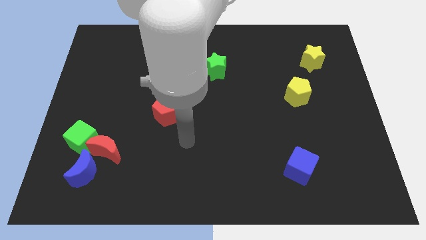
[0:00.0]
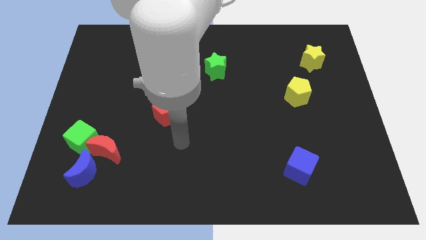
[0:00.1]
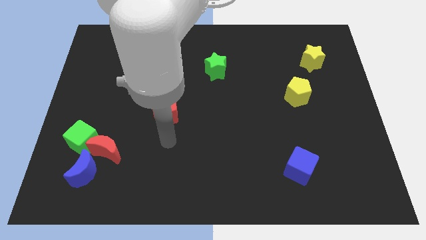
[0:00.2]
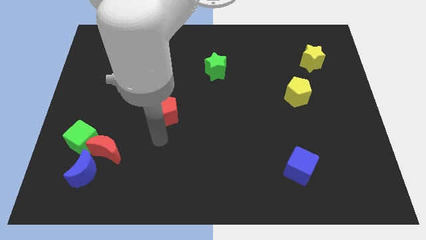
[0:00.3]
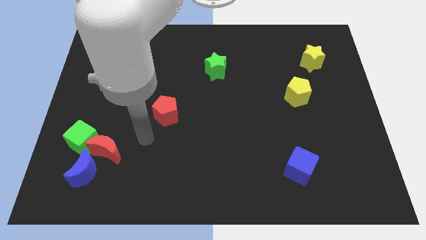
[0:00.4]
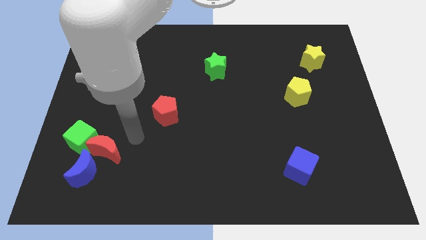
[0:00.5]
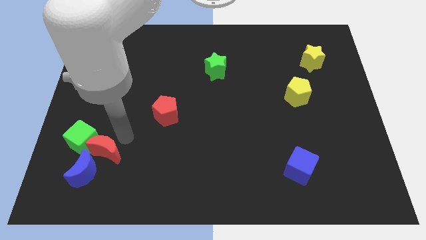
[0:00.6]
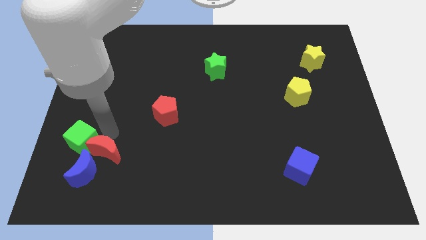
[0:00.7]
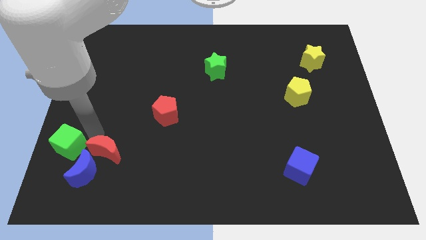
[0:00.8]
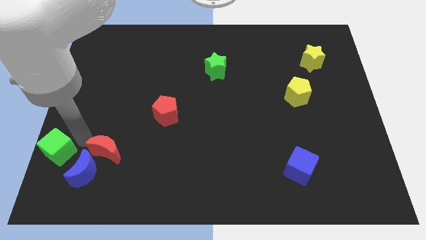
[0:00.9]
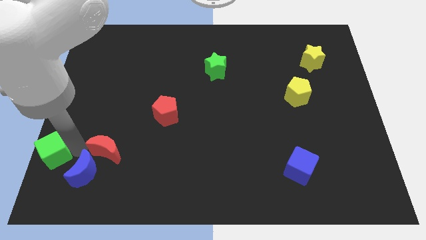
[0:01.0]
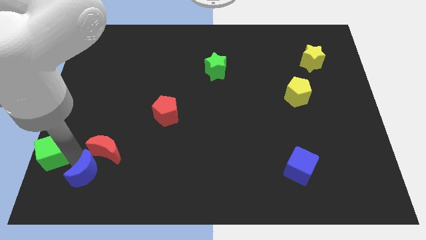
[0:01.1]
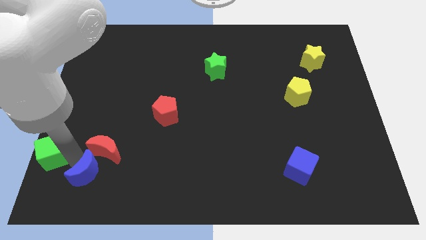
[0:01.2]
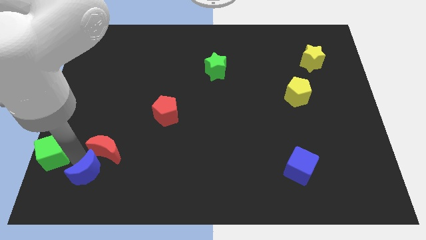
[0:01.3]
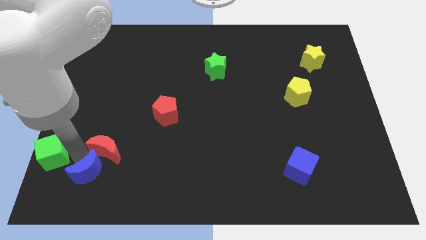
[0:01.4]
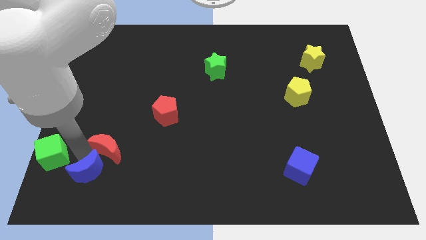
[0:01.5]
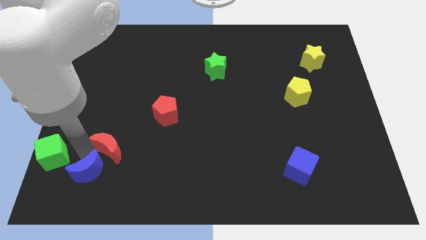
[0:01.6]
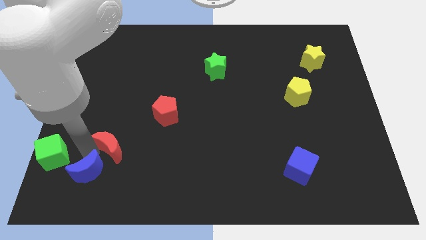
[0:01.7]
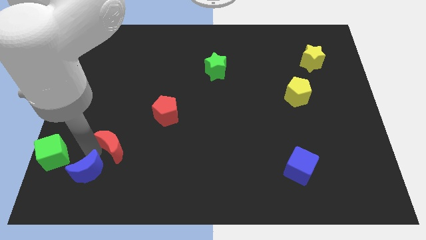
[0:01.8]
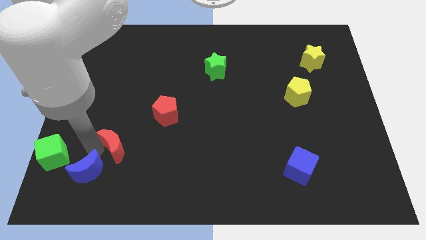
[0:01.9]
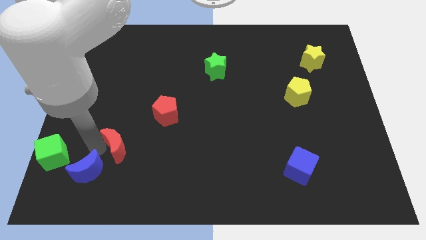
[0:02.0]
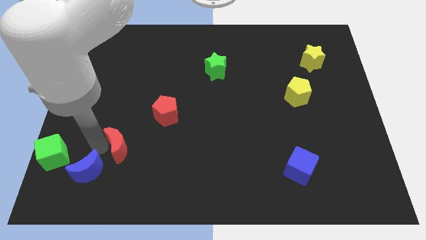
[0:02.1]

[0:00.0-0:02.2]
move the red moon away from the green cube and blue moon

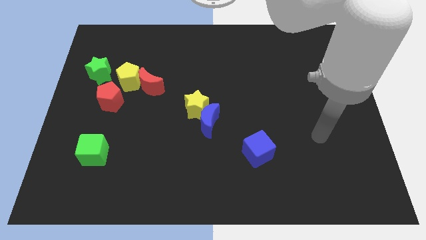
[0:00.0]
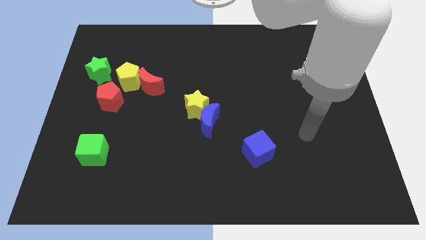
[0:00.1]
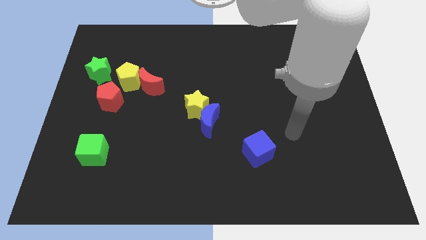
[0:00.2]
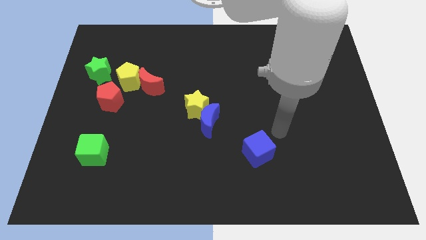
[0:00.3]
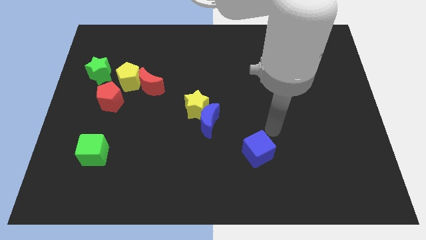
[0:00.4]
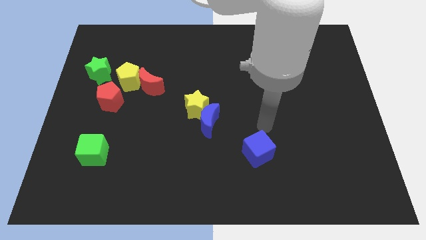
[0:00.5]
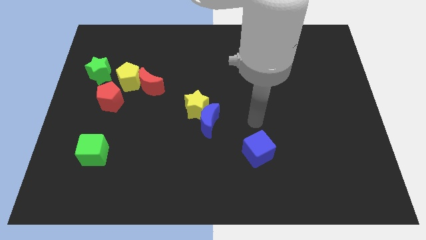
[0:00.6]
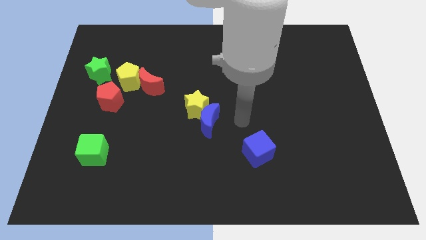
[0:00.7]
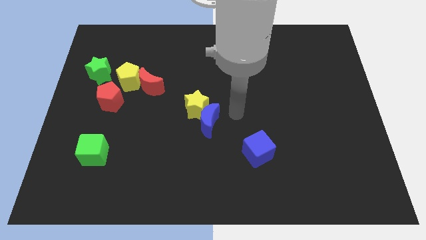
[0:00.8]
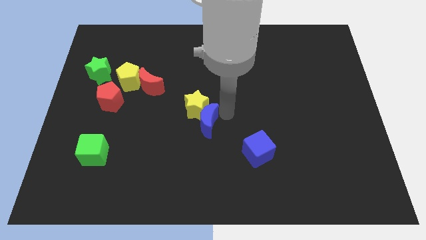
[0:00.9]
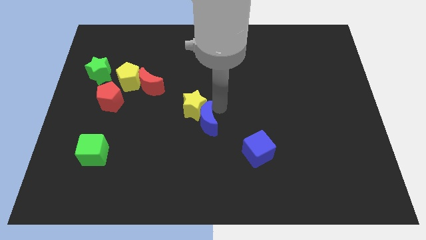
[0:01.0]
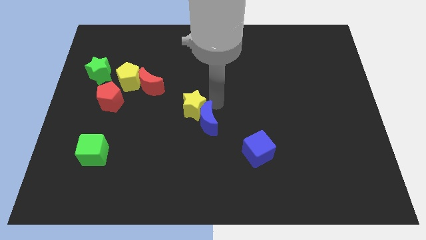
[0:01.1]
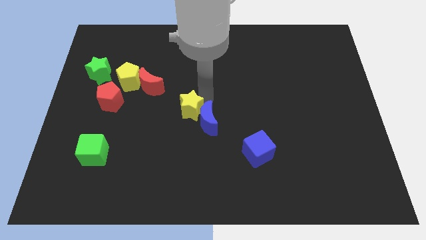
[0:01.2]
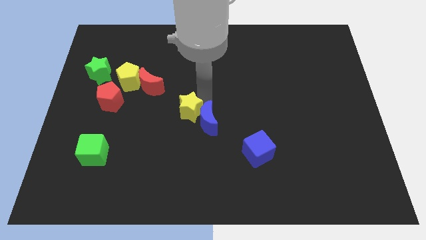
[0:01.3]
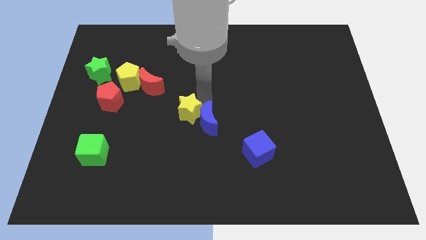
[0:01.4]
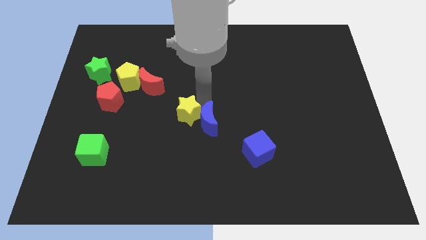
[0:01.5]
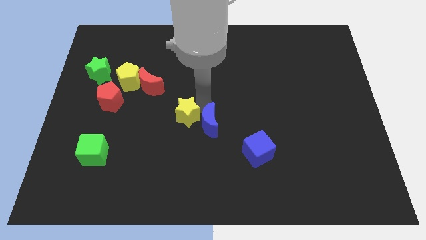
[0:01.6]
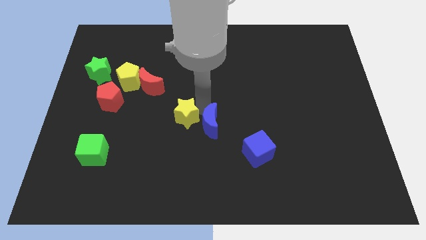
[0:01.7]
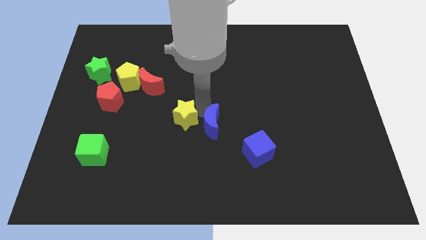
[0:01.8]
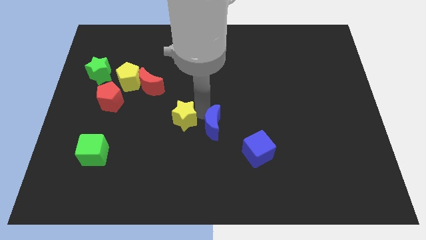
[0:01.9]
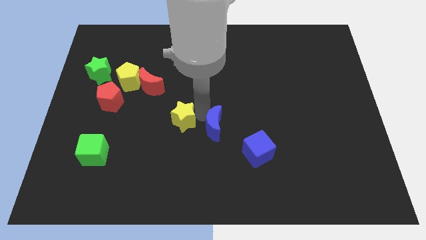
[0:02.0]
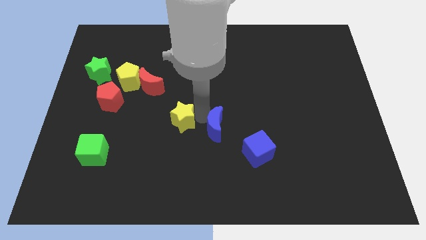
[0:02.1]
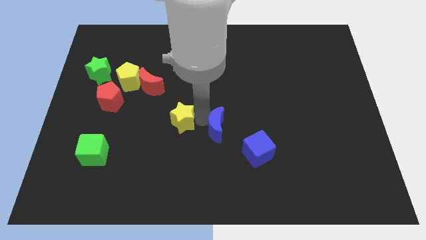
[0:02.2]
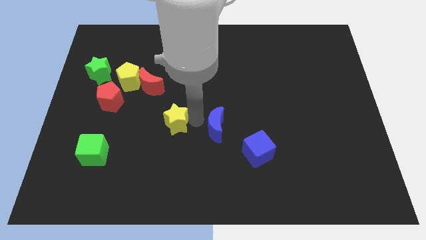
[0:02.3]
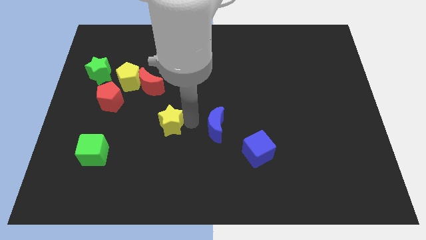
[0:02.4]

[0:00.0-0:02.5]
pull the blue moon apart from the yellow star

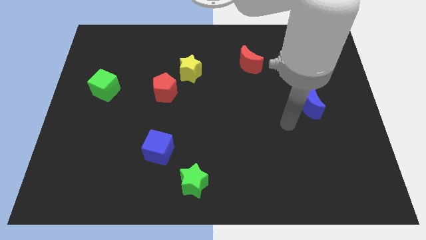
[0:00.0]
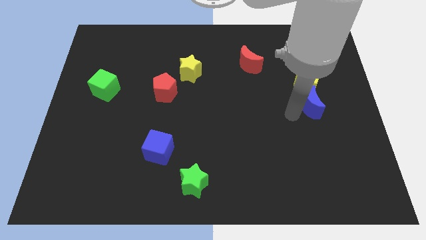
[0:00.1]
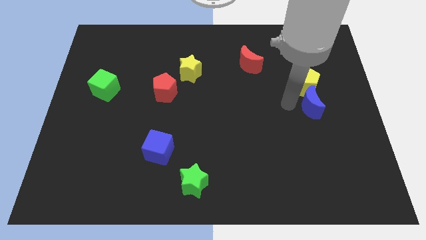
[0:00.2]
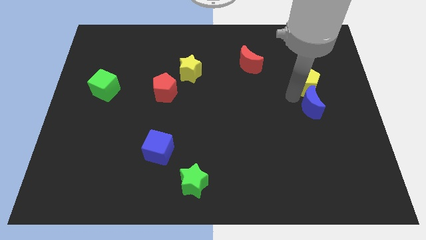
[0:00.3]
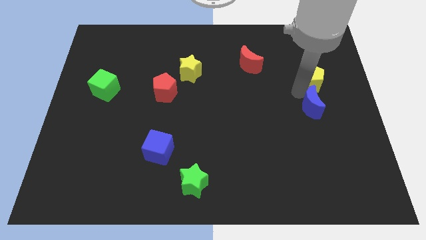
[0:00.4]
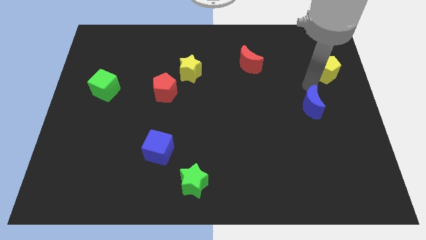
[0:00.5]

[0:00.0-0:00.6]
separate the blue moon from the yellow pentagon

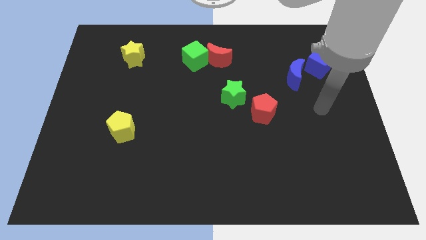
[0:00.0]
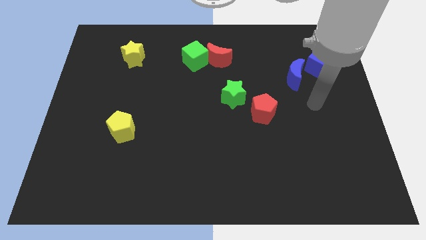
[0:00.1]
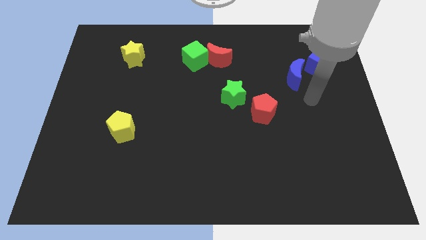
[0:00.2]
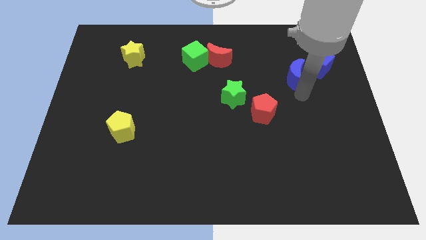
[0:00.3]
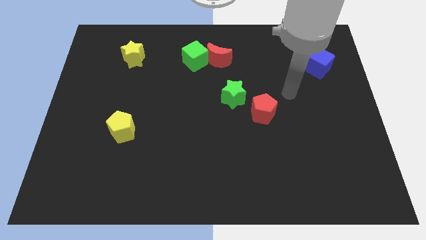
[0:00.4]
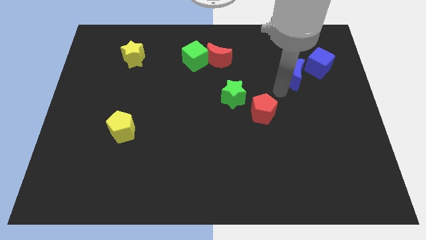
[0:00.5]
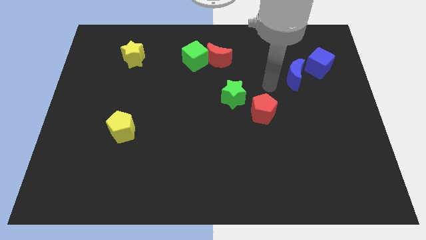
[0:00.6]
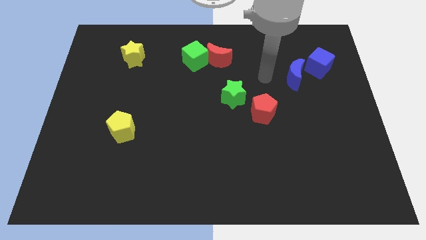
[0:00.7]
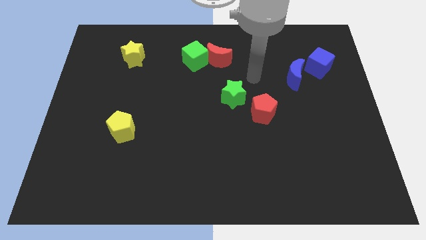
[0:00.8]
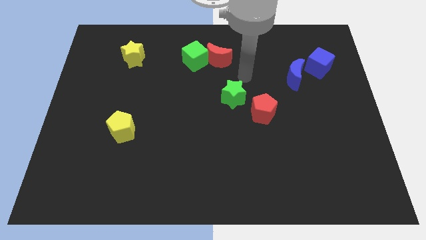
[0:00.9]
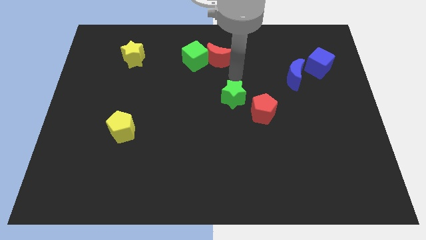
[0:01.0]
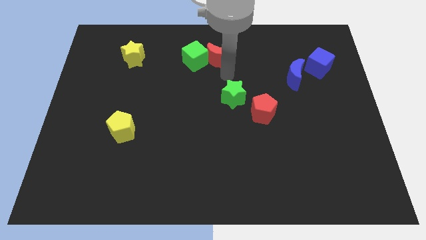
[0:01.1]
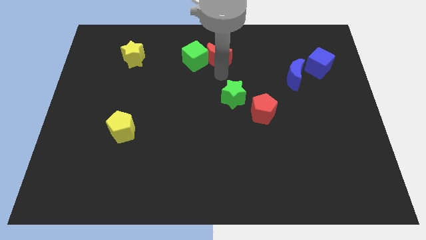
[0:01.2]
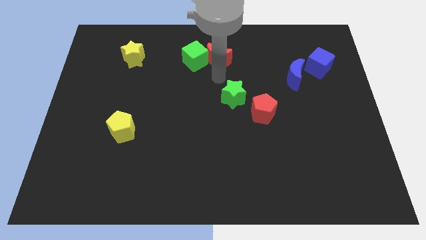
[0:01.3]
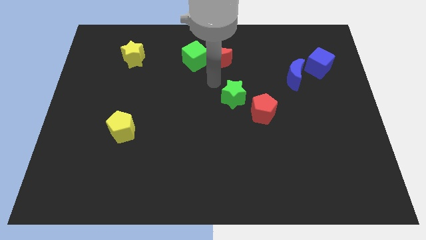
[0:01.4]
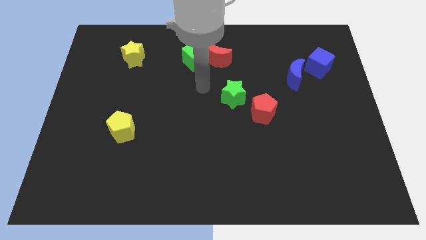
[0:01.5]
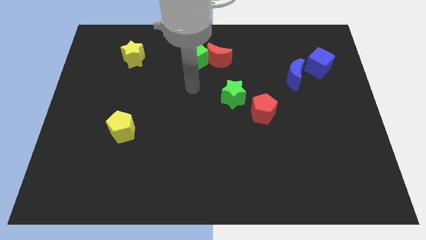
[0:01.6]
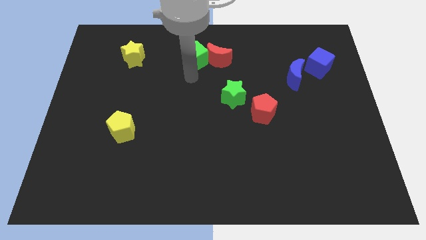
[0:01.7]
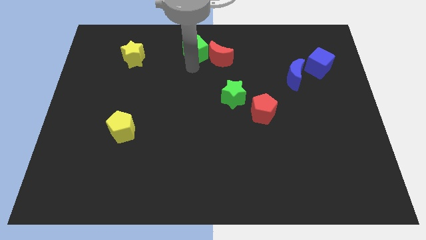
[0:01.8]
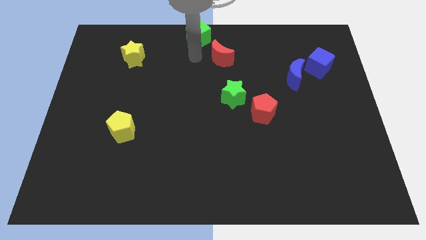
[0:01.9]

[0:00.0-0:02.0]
pull the red moon apart from the green cube

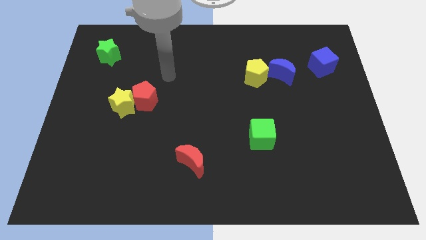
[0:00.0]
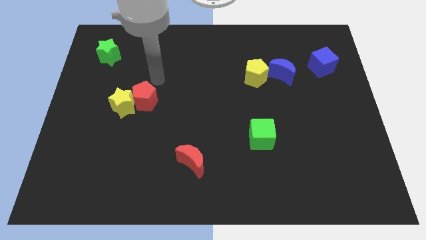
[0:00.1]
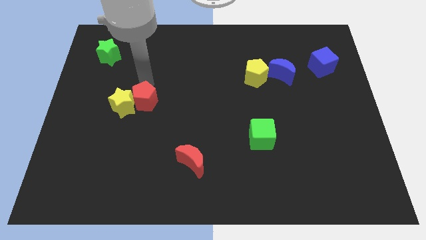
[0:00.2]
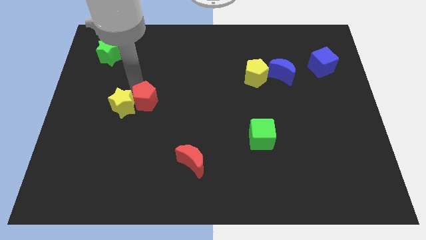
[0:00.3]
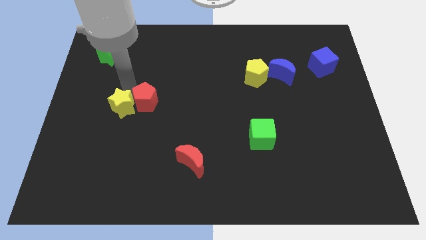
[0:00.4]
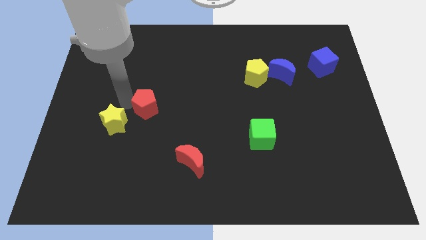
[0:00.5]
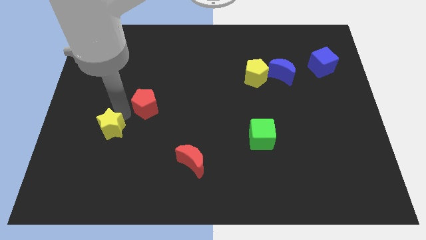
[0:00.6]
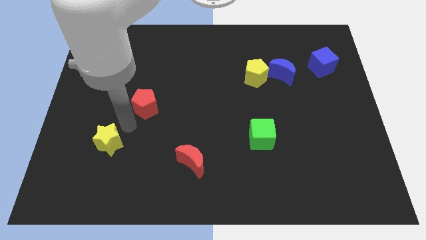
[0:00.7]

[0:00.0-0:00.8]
separate the red pentagon from the yellow star

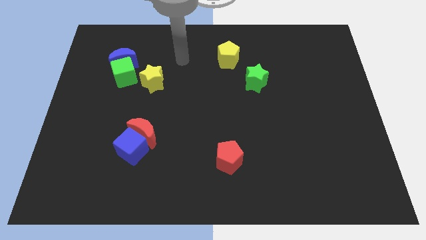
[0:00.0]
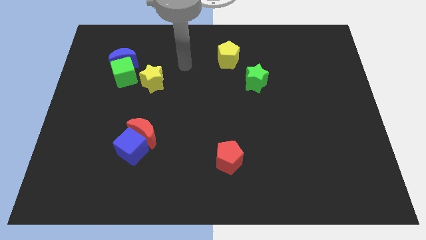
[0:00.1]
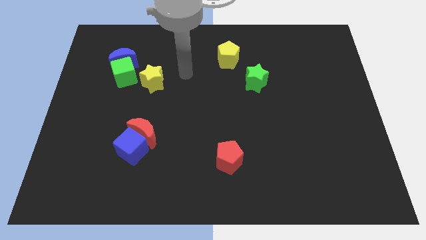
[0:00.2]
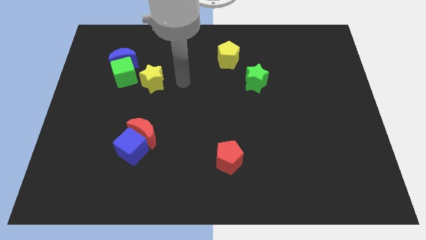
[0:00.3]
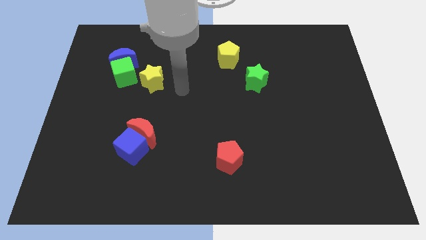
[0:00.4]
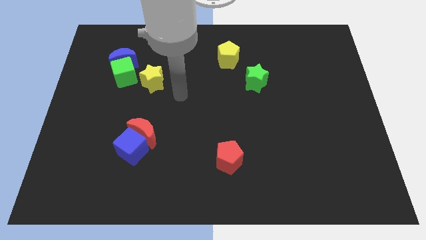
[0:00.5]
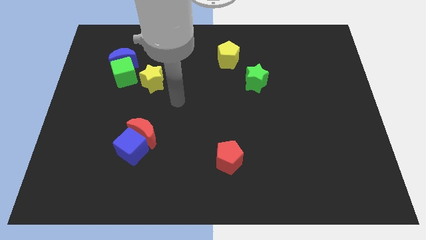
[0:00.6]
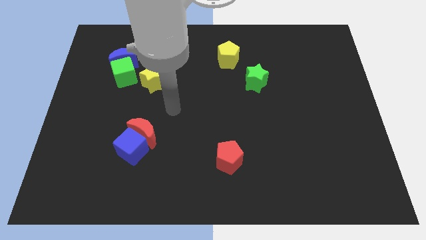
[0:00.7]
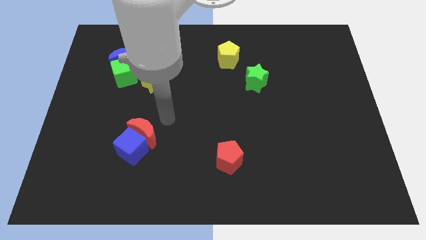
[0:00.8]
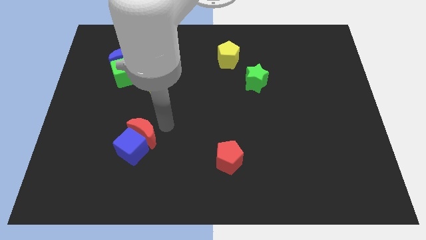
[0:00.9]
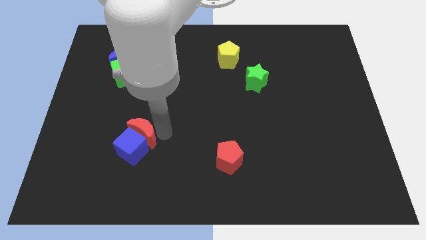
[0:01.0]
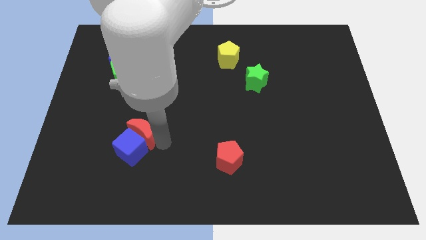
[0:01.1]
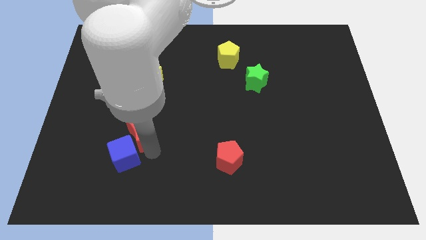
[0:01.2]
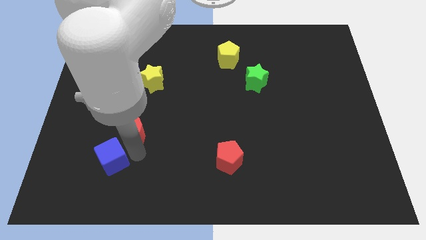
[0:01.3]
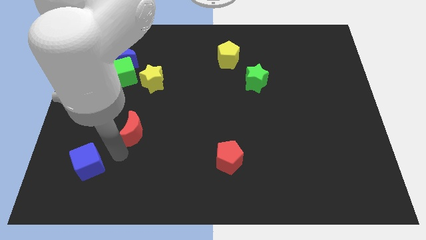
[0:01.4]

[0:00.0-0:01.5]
pull the red moon apart from the blue cube
